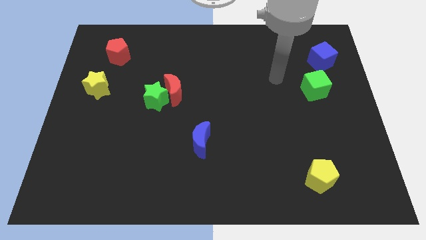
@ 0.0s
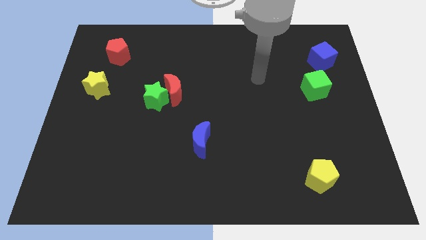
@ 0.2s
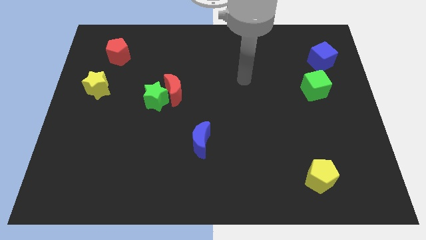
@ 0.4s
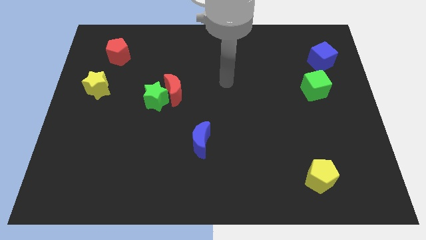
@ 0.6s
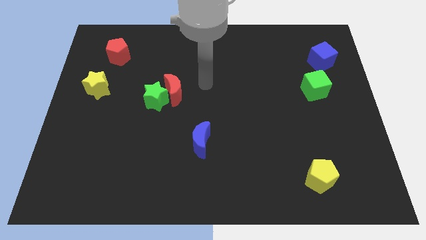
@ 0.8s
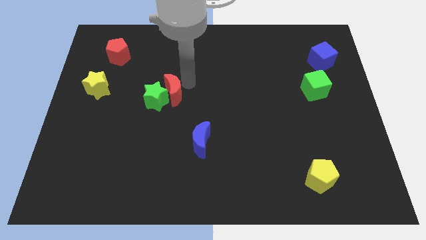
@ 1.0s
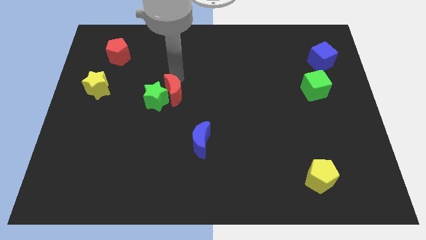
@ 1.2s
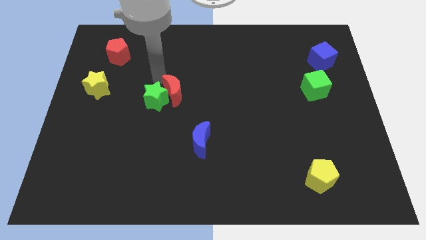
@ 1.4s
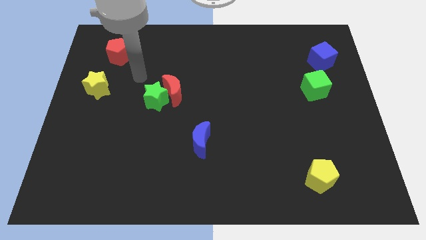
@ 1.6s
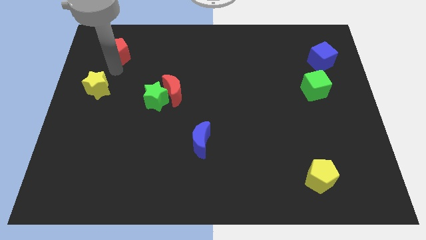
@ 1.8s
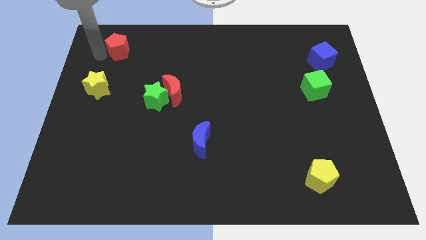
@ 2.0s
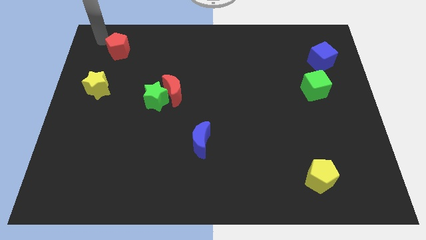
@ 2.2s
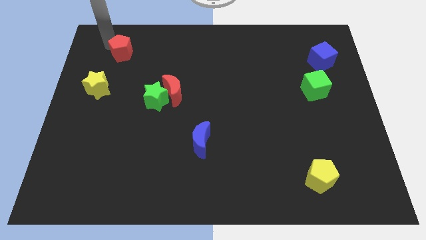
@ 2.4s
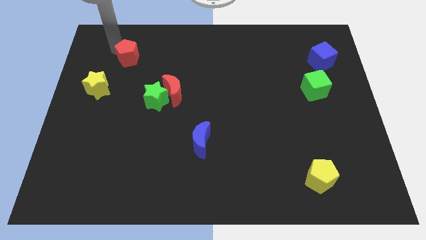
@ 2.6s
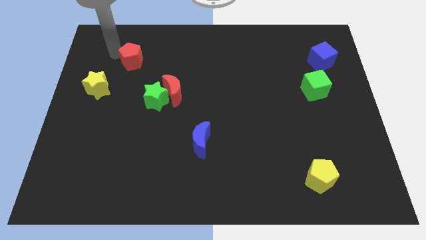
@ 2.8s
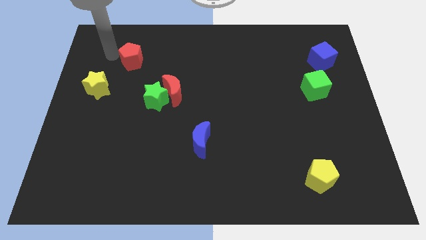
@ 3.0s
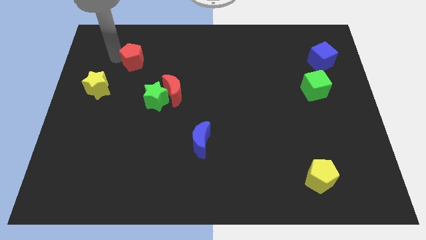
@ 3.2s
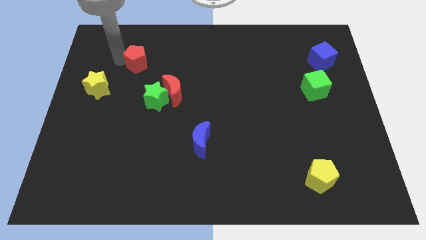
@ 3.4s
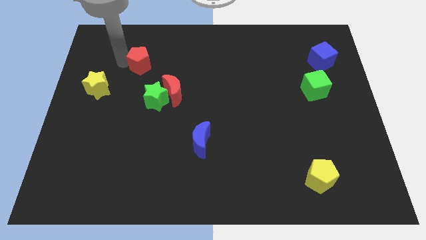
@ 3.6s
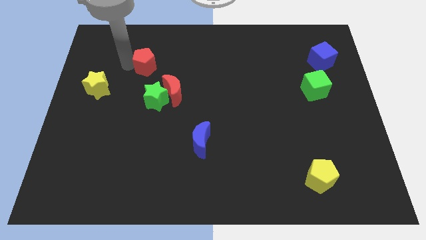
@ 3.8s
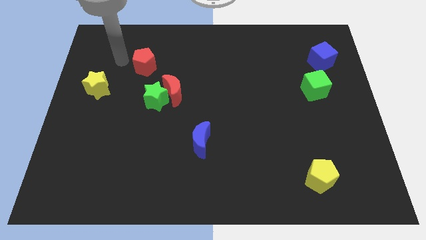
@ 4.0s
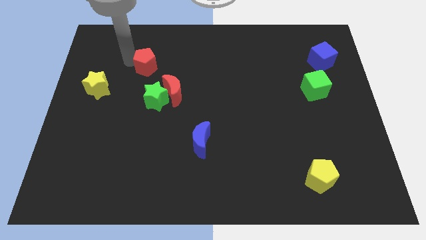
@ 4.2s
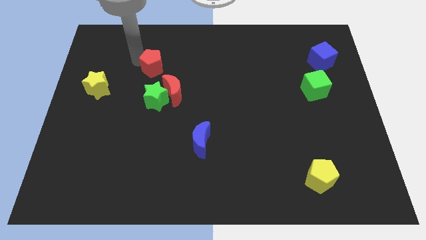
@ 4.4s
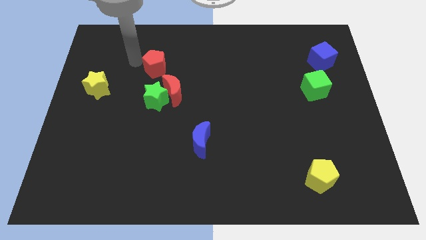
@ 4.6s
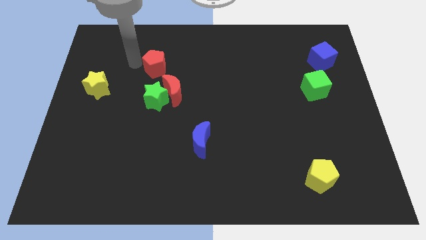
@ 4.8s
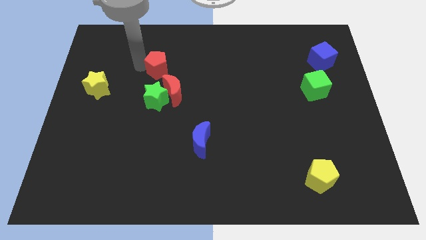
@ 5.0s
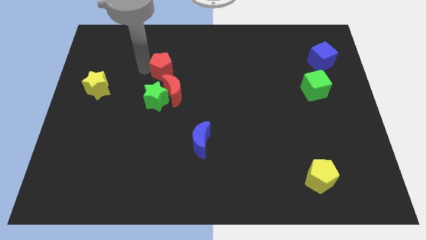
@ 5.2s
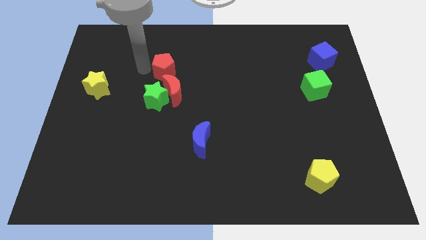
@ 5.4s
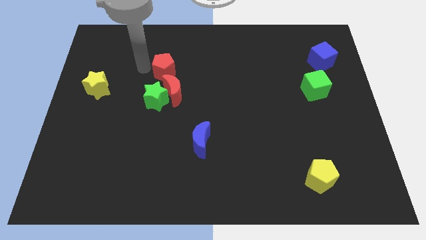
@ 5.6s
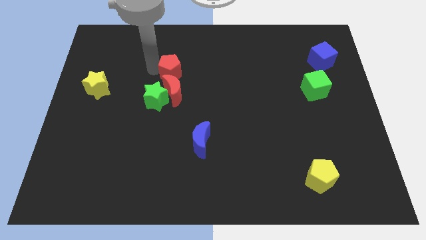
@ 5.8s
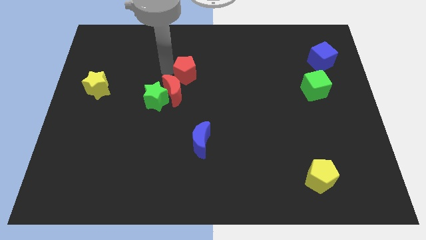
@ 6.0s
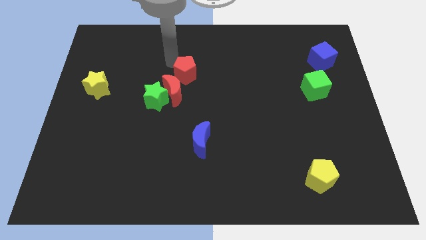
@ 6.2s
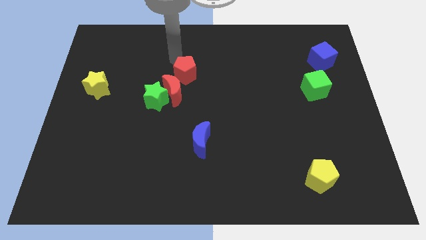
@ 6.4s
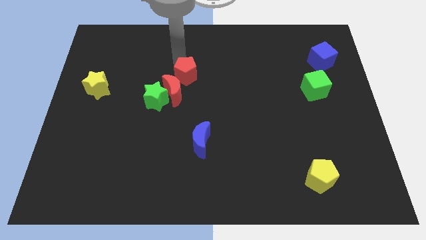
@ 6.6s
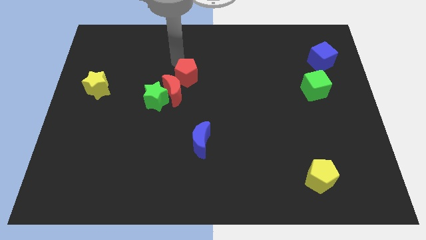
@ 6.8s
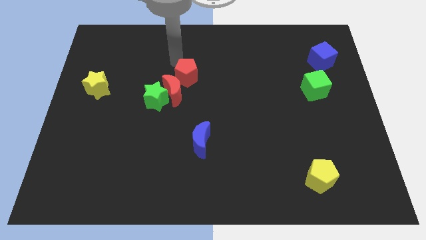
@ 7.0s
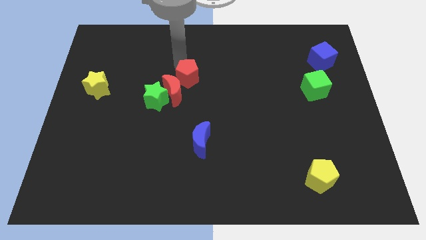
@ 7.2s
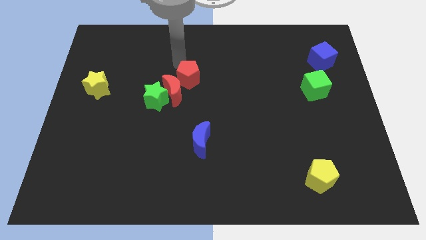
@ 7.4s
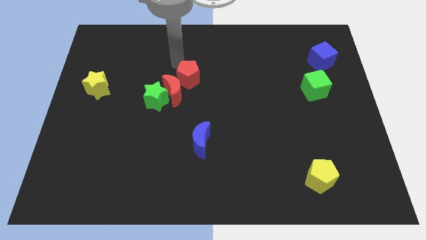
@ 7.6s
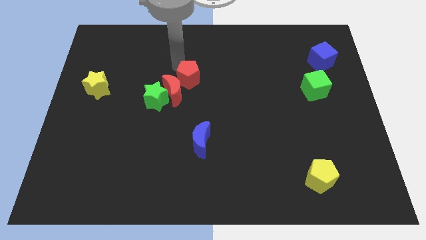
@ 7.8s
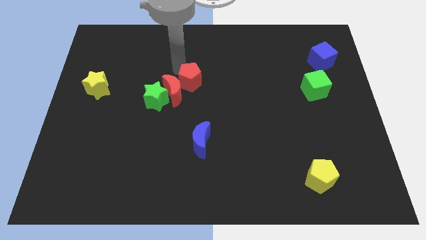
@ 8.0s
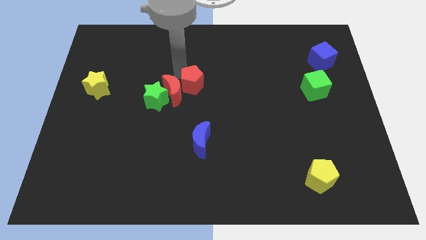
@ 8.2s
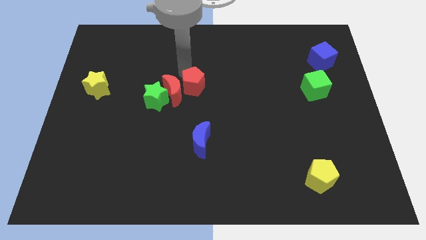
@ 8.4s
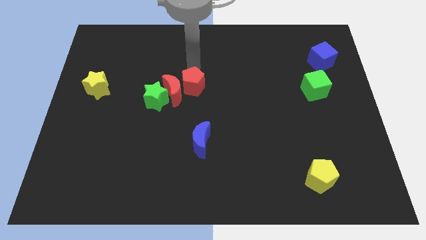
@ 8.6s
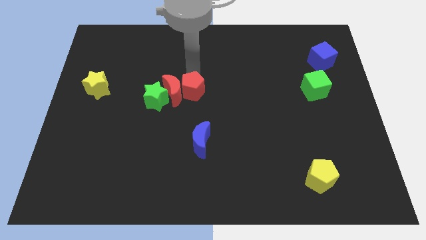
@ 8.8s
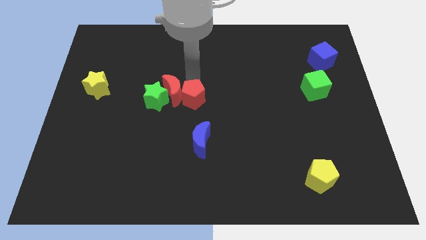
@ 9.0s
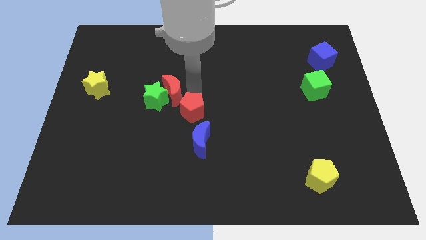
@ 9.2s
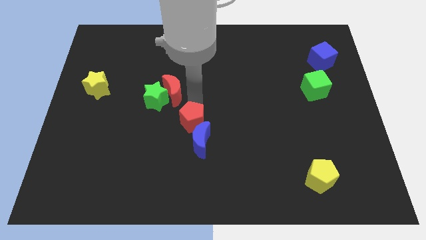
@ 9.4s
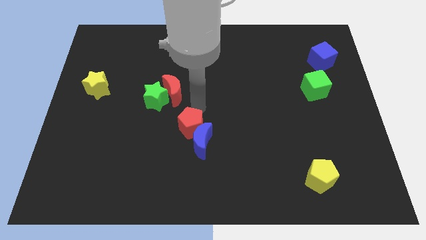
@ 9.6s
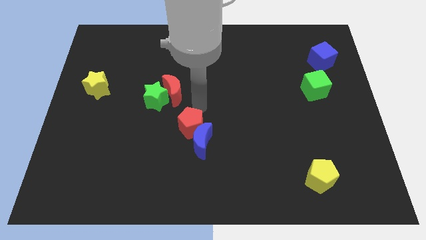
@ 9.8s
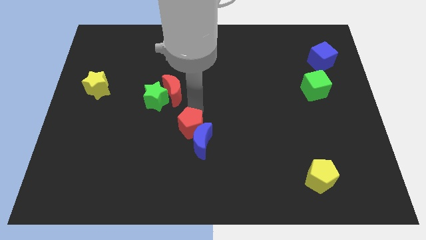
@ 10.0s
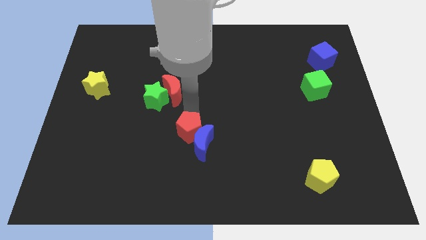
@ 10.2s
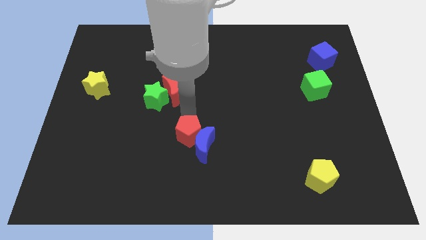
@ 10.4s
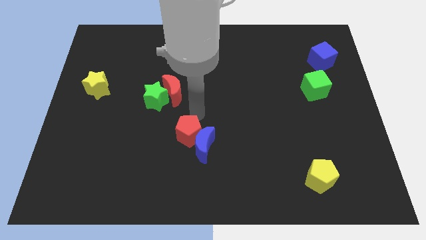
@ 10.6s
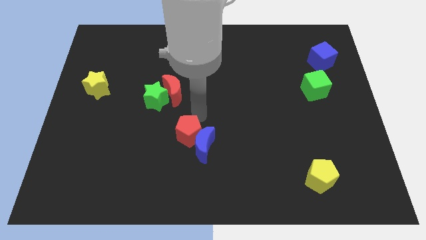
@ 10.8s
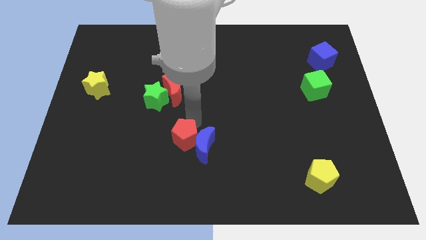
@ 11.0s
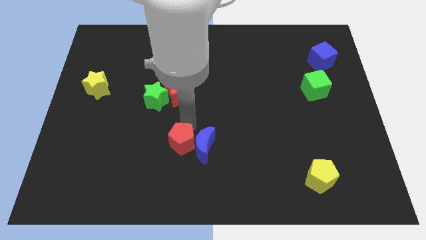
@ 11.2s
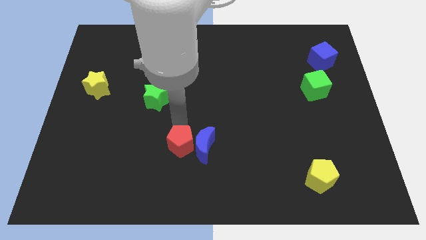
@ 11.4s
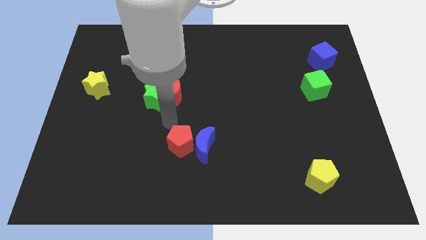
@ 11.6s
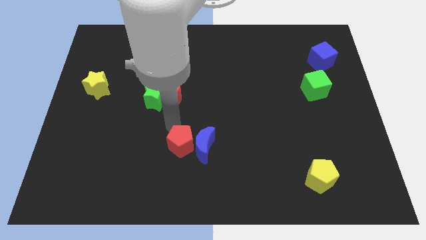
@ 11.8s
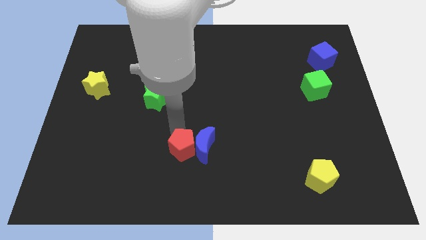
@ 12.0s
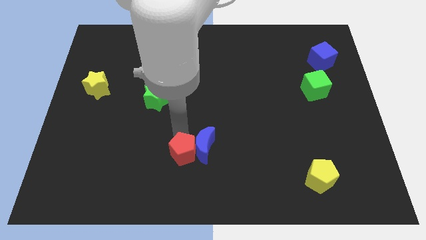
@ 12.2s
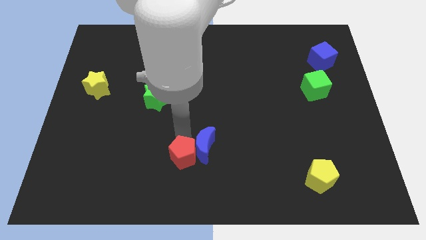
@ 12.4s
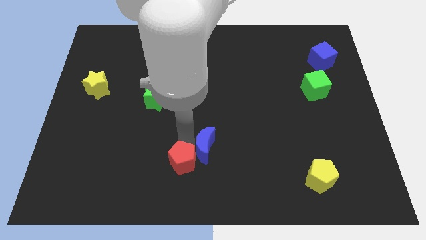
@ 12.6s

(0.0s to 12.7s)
push the red pentagon to the bottom
